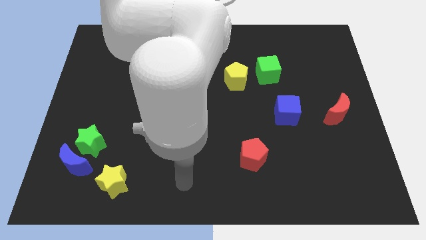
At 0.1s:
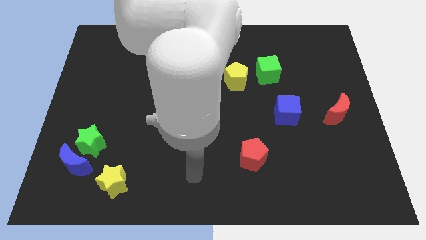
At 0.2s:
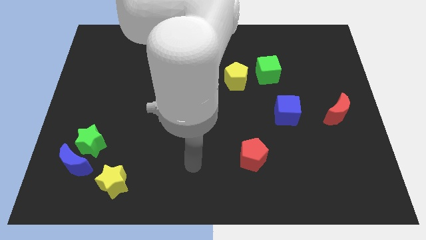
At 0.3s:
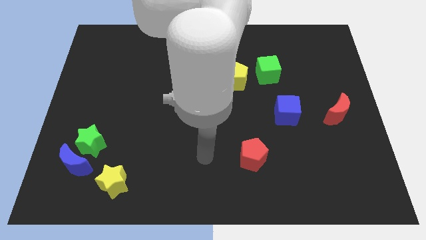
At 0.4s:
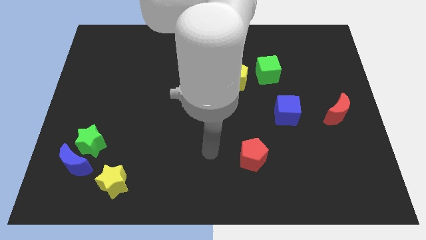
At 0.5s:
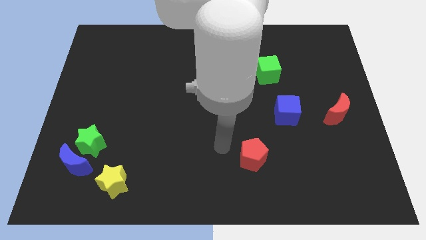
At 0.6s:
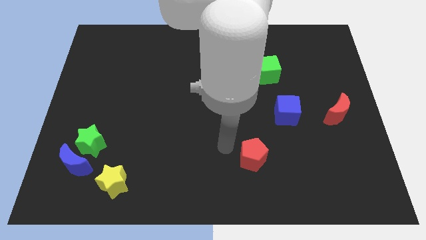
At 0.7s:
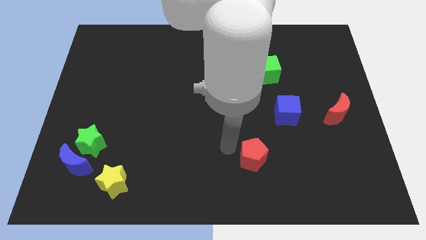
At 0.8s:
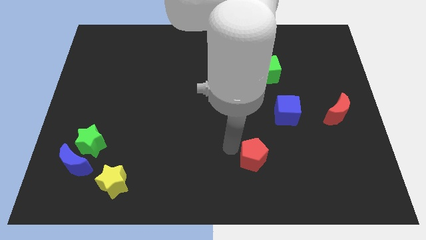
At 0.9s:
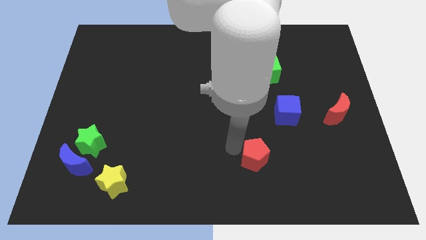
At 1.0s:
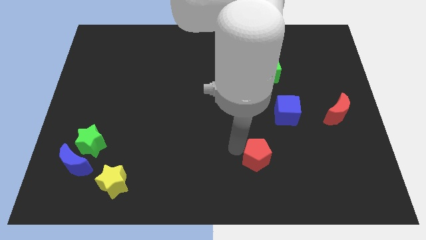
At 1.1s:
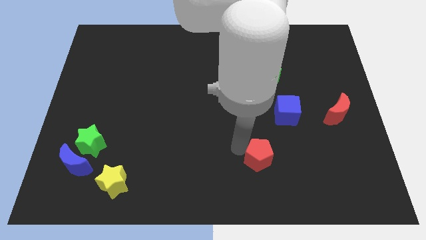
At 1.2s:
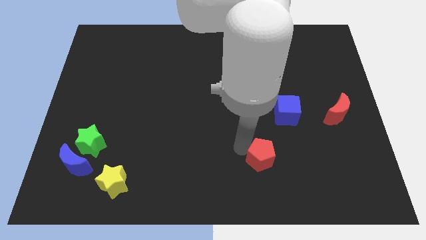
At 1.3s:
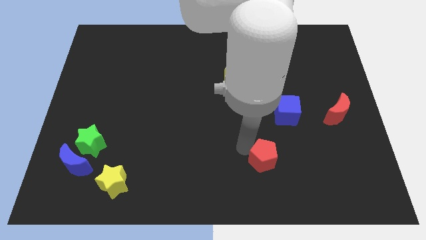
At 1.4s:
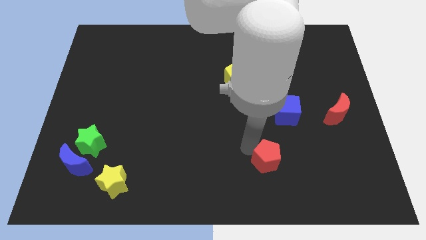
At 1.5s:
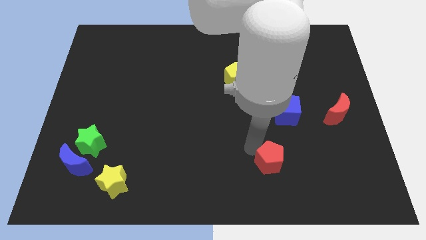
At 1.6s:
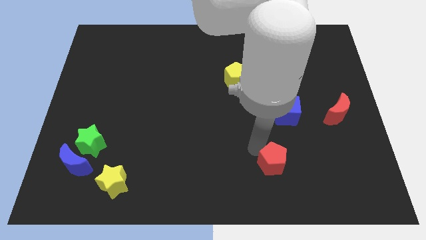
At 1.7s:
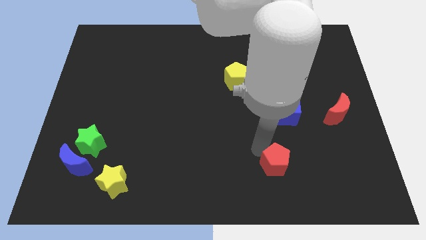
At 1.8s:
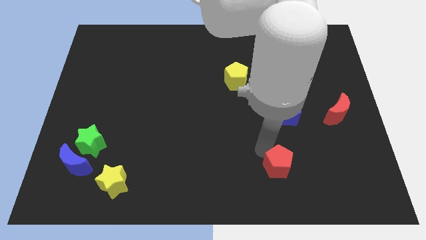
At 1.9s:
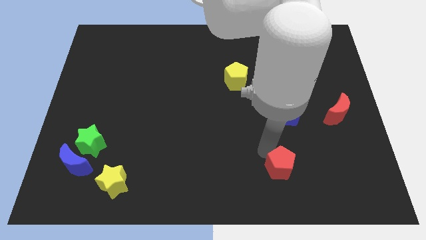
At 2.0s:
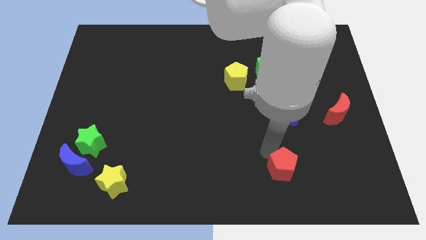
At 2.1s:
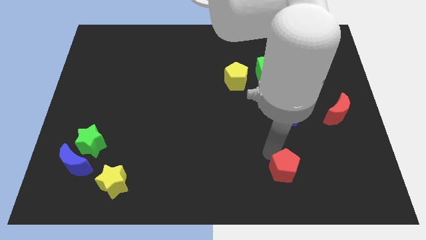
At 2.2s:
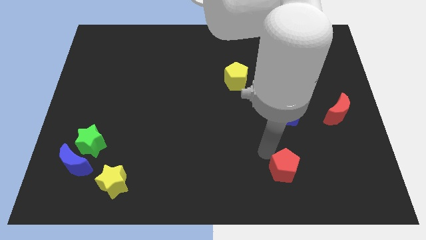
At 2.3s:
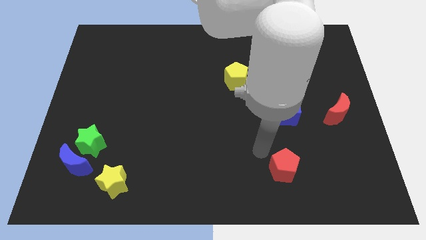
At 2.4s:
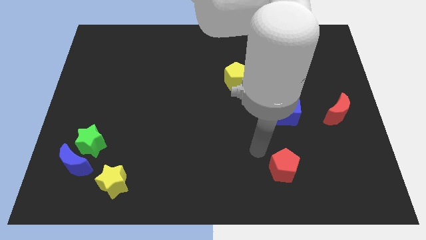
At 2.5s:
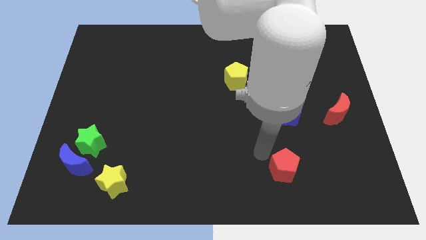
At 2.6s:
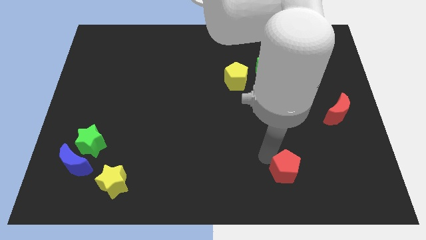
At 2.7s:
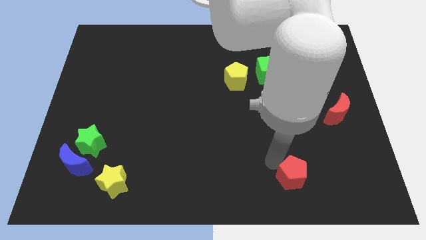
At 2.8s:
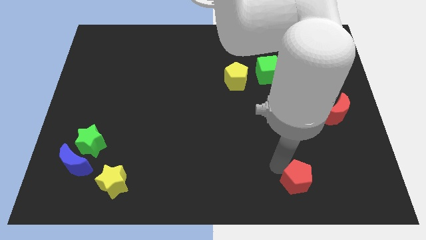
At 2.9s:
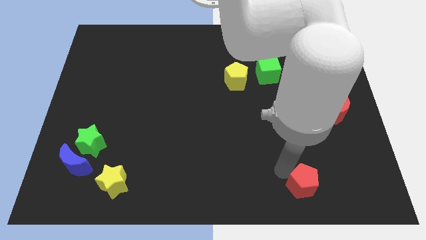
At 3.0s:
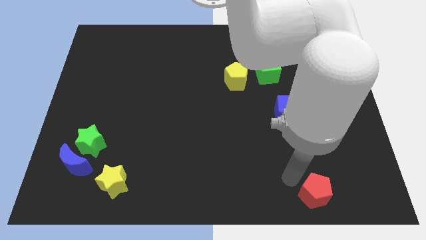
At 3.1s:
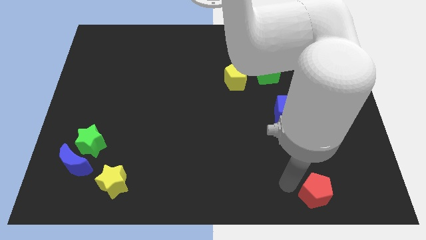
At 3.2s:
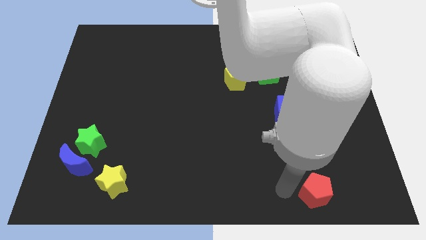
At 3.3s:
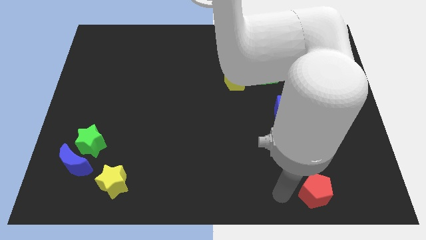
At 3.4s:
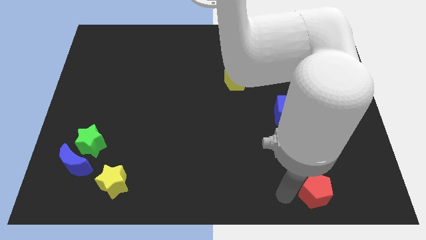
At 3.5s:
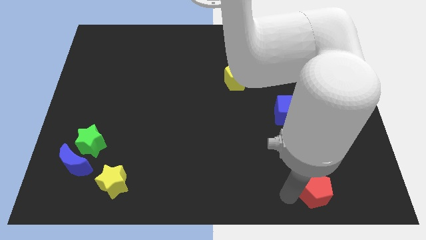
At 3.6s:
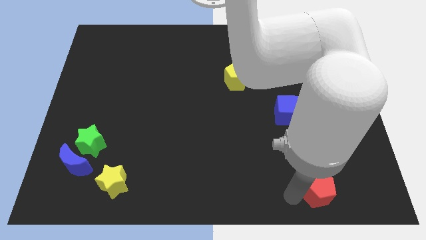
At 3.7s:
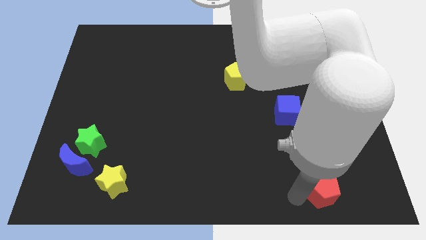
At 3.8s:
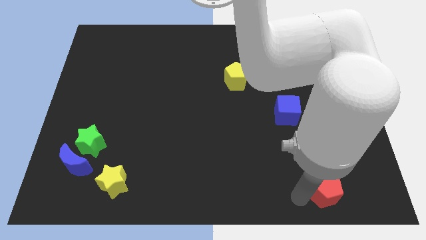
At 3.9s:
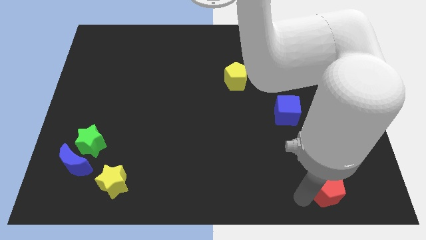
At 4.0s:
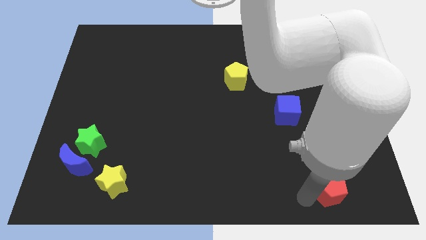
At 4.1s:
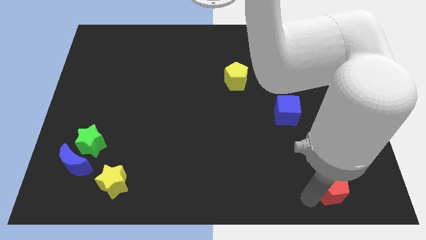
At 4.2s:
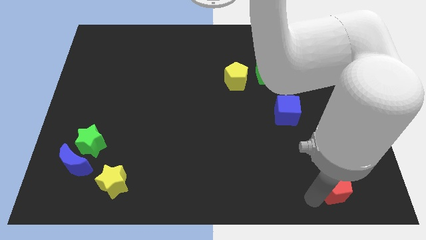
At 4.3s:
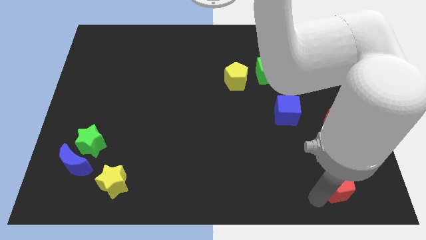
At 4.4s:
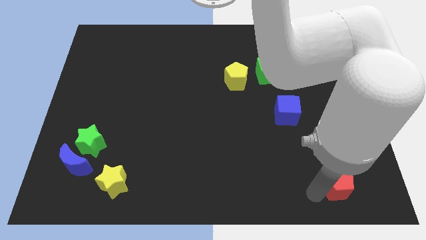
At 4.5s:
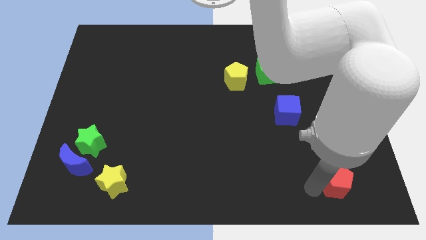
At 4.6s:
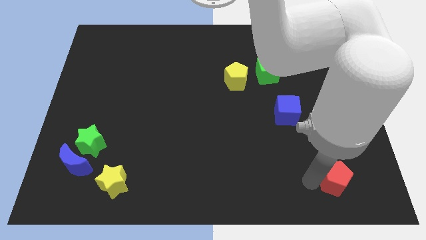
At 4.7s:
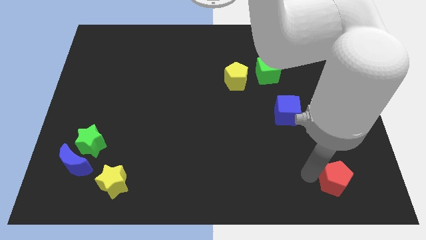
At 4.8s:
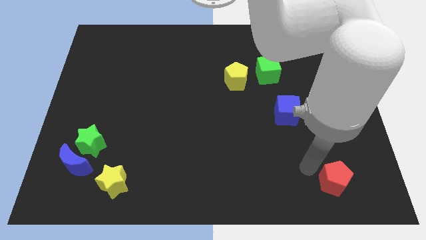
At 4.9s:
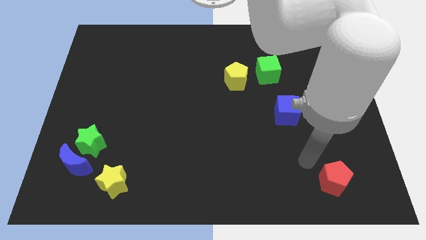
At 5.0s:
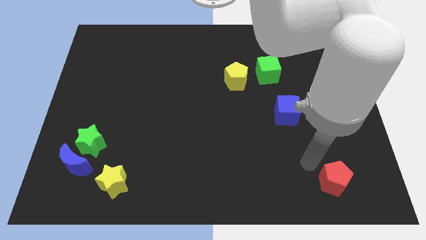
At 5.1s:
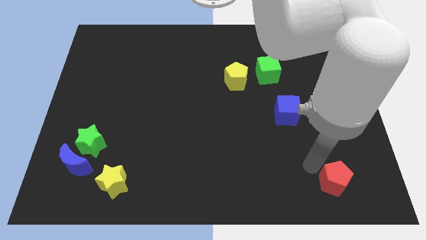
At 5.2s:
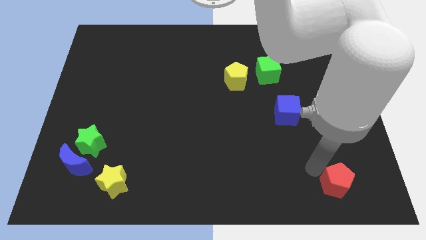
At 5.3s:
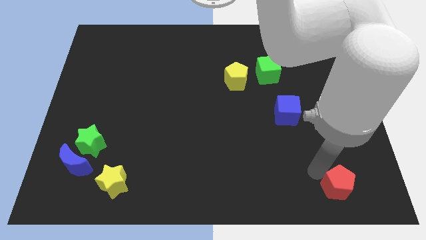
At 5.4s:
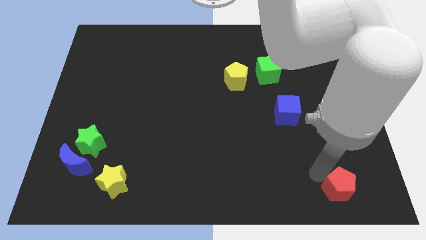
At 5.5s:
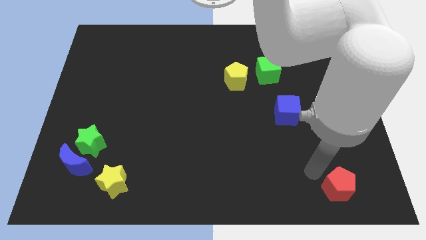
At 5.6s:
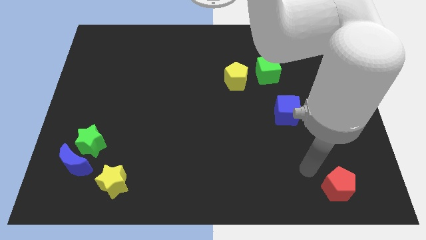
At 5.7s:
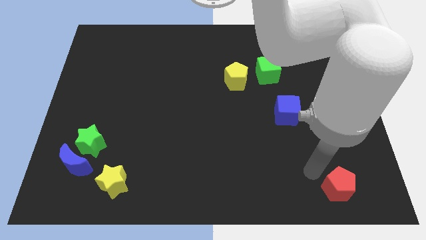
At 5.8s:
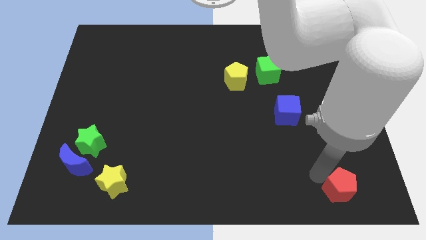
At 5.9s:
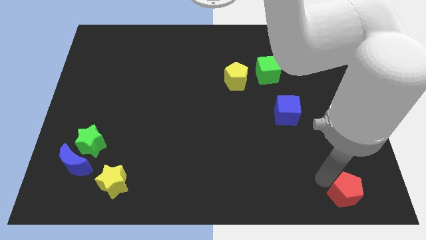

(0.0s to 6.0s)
put the red pentagon to the bottom right of the board
